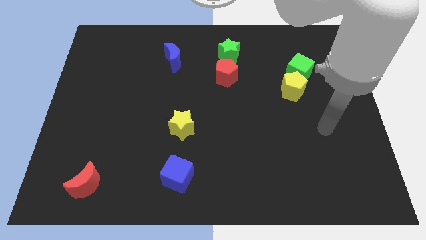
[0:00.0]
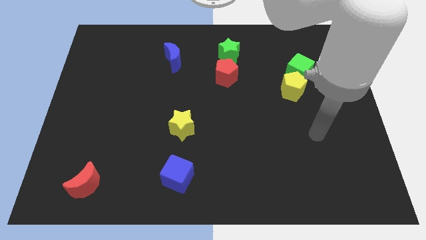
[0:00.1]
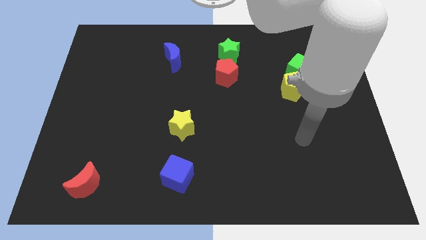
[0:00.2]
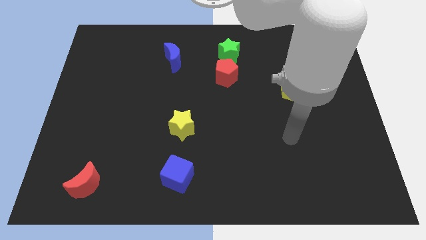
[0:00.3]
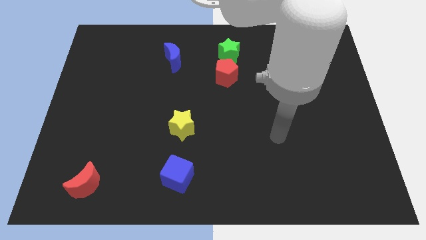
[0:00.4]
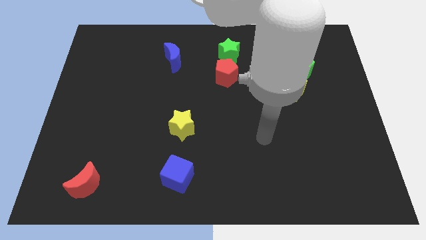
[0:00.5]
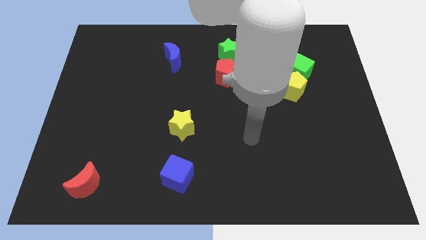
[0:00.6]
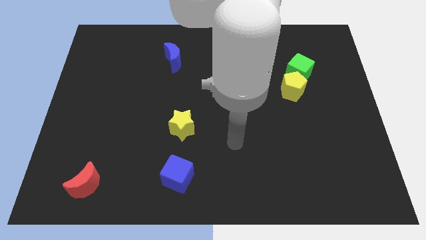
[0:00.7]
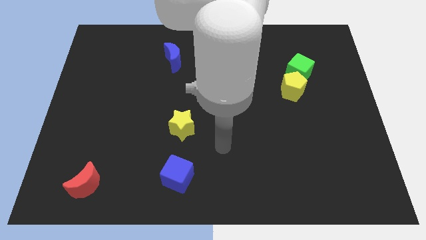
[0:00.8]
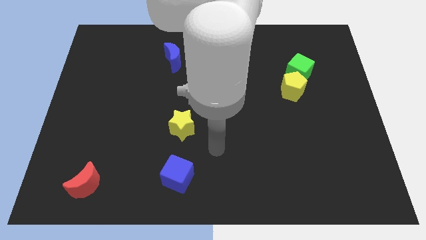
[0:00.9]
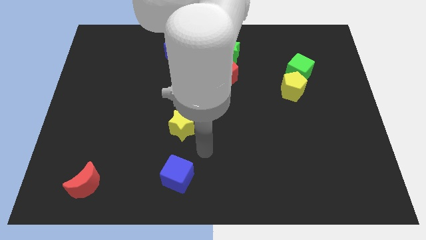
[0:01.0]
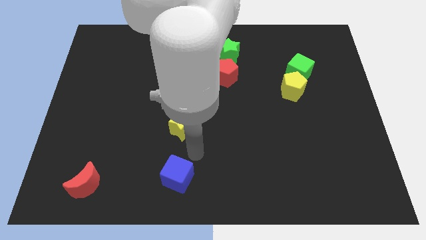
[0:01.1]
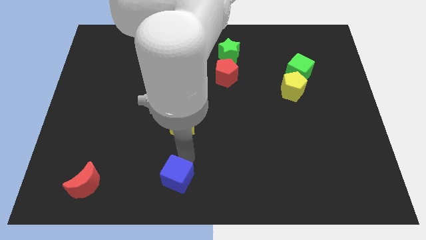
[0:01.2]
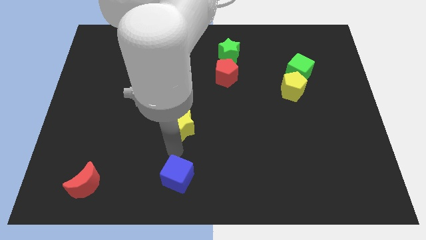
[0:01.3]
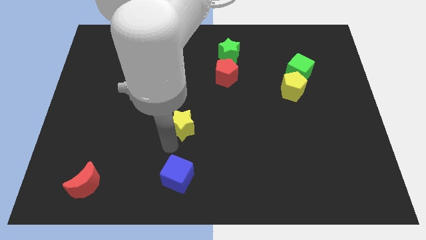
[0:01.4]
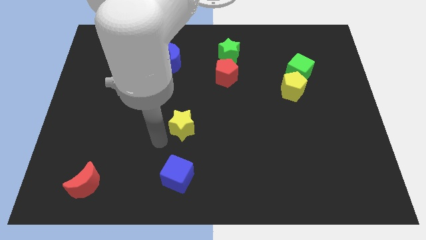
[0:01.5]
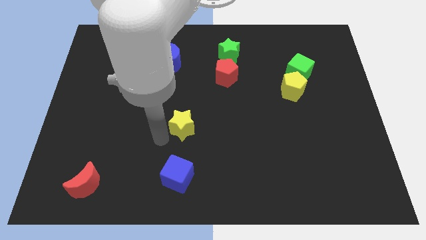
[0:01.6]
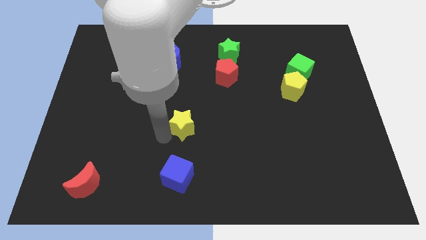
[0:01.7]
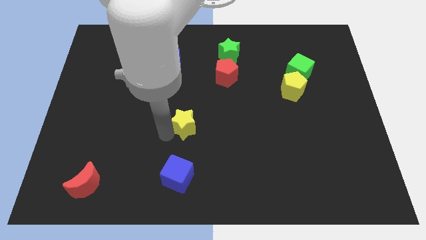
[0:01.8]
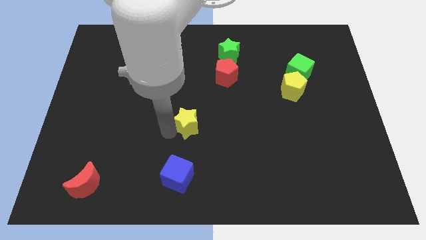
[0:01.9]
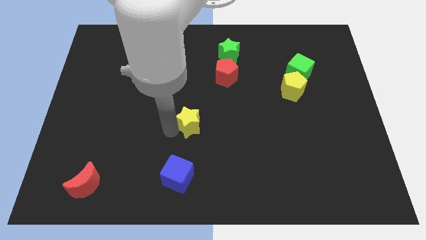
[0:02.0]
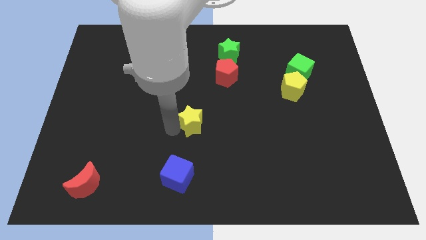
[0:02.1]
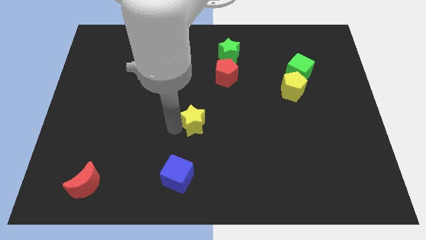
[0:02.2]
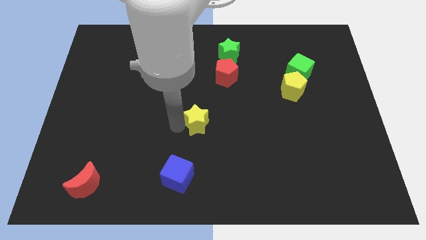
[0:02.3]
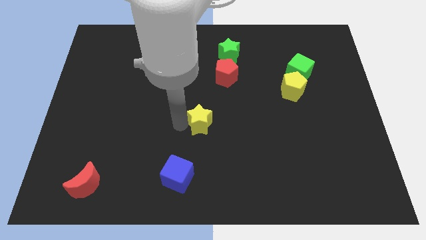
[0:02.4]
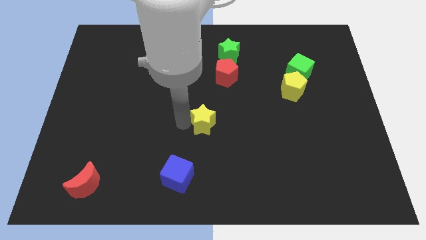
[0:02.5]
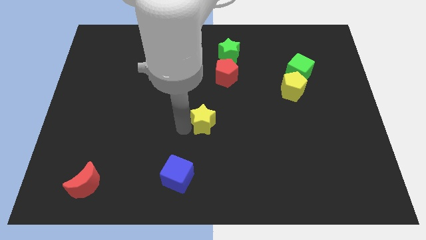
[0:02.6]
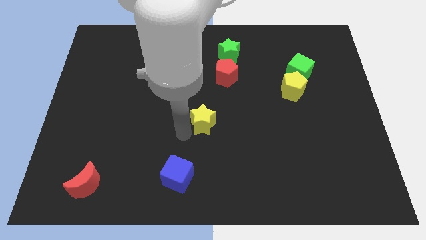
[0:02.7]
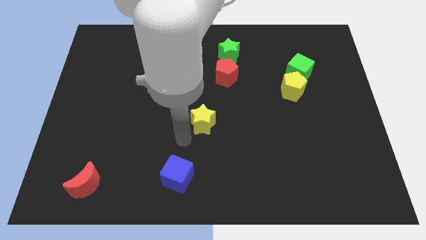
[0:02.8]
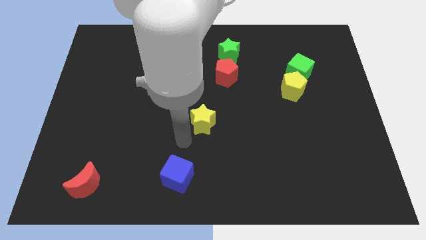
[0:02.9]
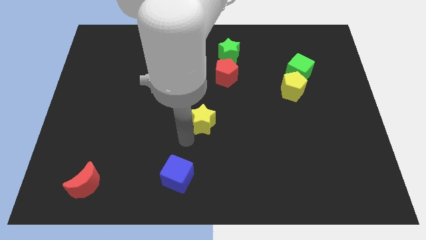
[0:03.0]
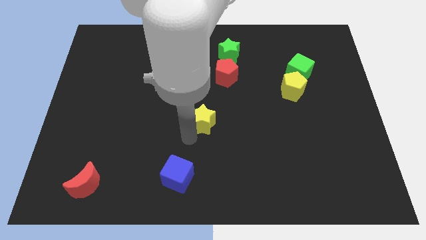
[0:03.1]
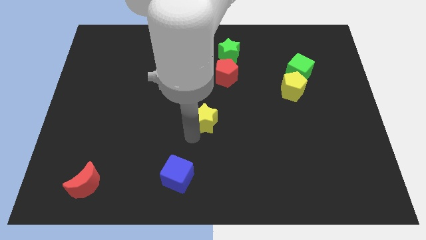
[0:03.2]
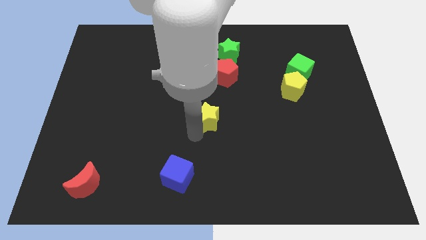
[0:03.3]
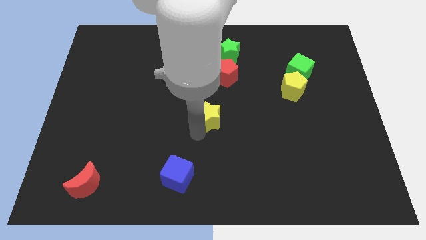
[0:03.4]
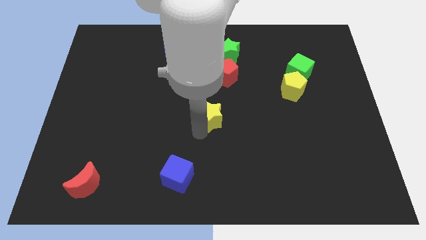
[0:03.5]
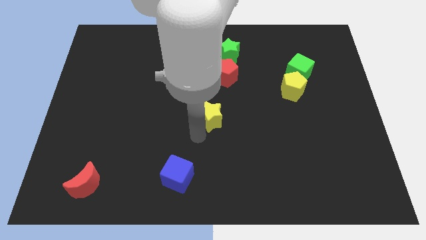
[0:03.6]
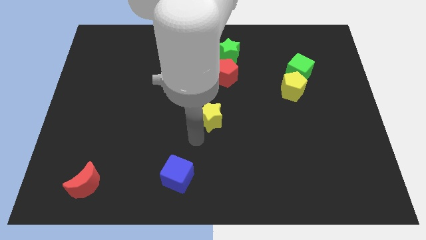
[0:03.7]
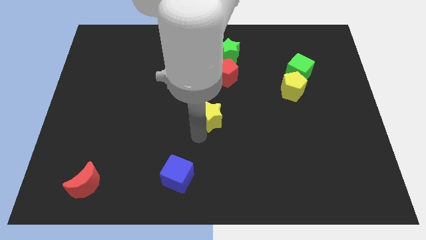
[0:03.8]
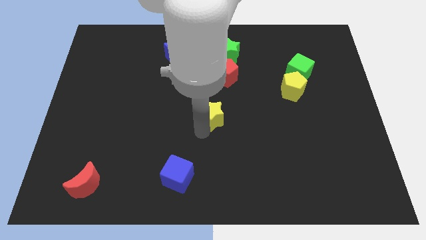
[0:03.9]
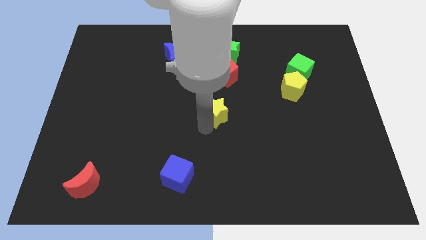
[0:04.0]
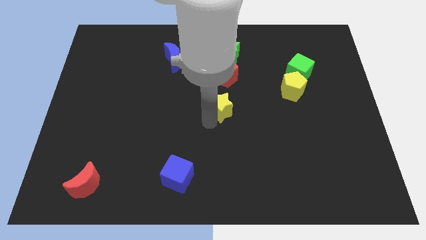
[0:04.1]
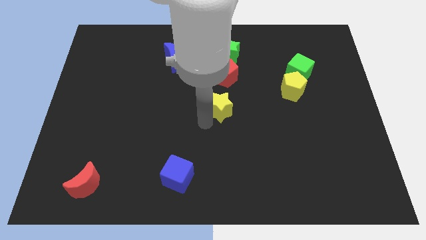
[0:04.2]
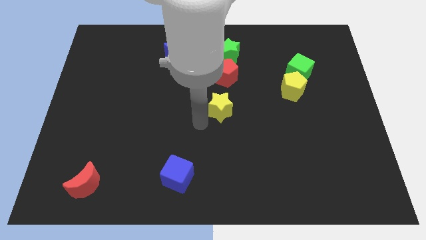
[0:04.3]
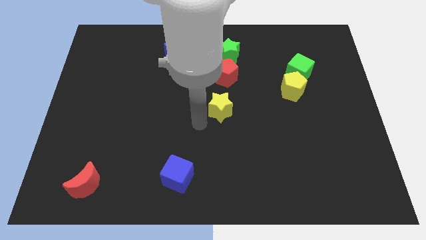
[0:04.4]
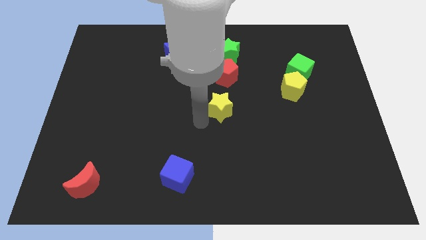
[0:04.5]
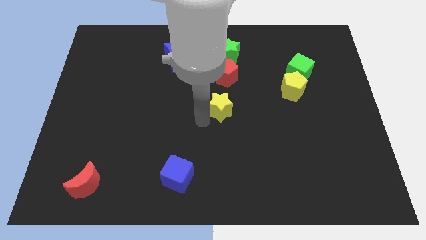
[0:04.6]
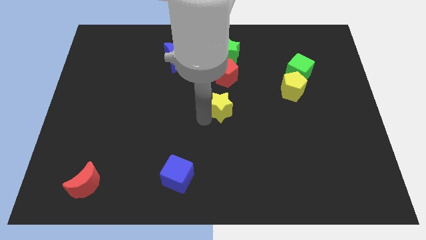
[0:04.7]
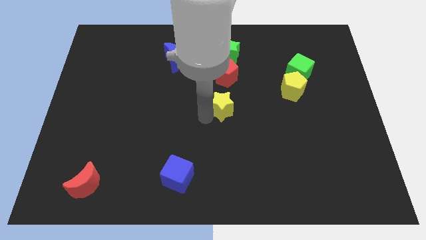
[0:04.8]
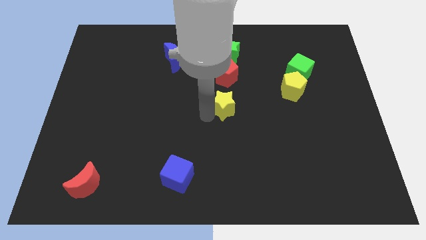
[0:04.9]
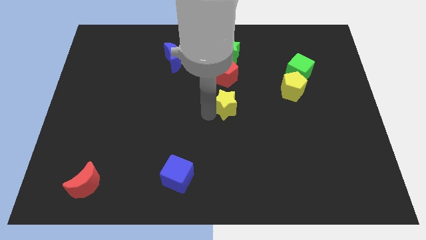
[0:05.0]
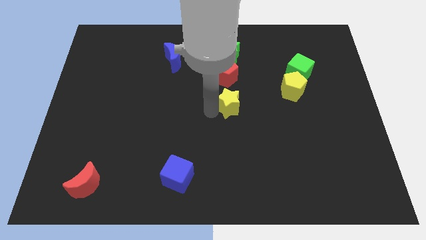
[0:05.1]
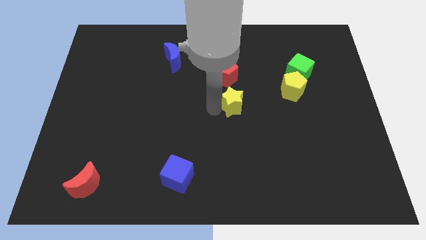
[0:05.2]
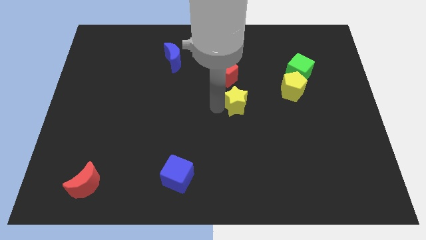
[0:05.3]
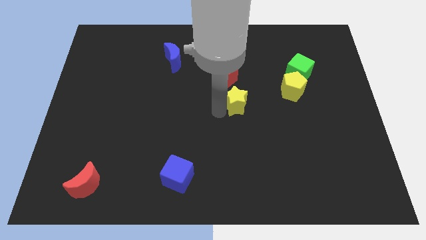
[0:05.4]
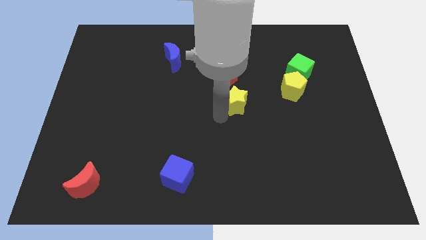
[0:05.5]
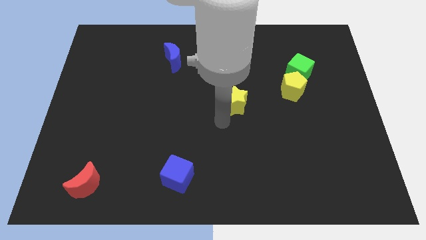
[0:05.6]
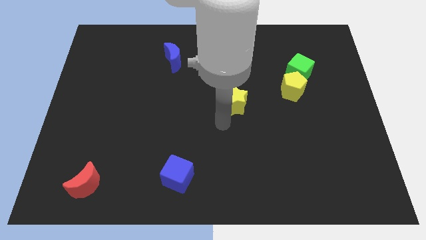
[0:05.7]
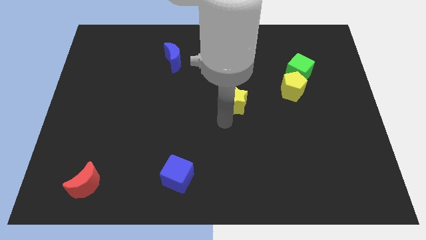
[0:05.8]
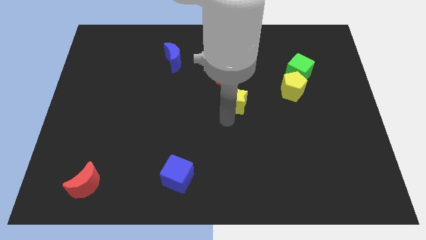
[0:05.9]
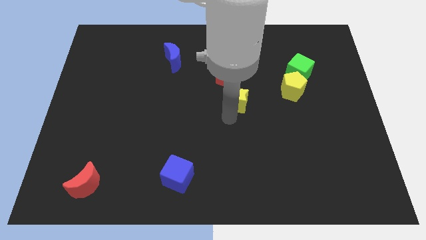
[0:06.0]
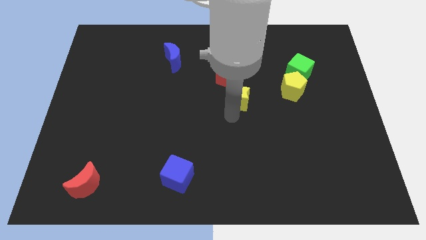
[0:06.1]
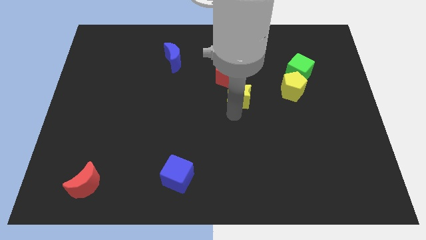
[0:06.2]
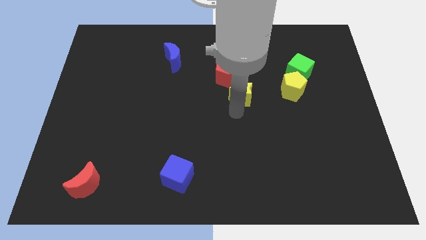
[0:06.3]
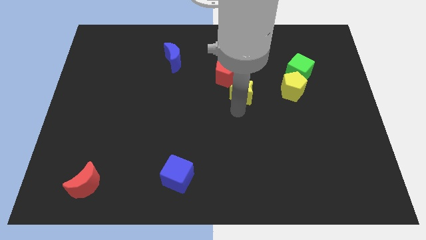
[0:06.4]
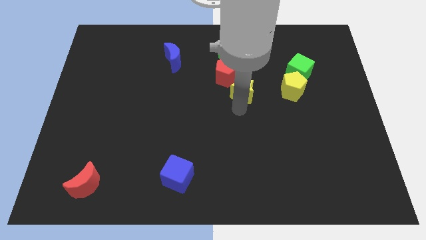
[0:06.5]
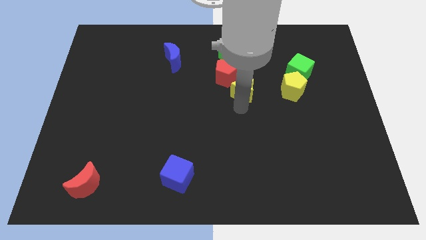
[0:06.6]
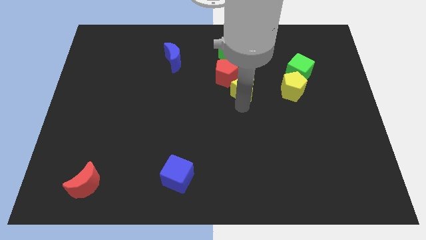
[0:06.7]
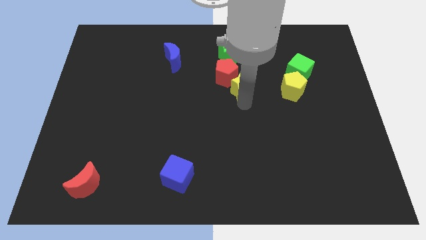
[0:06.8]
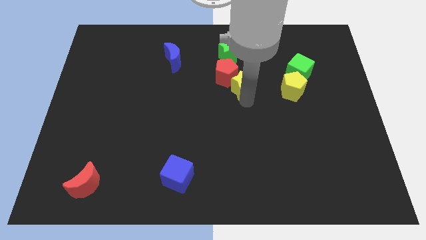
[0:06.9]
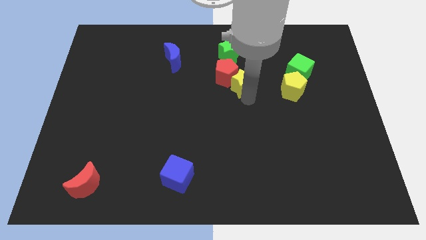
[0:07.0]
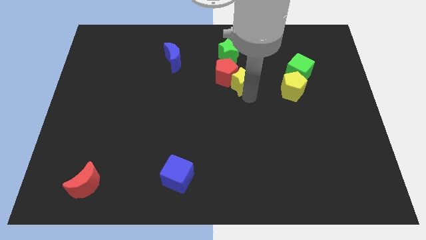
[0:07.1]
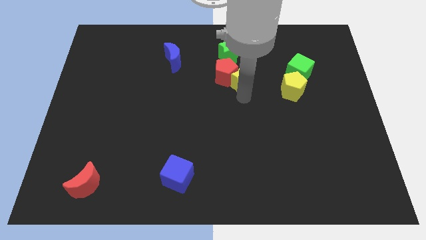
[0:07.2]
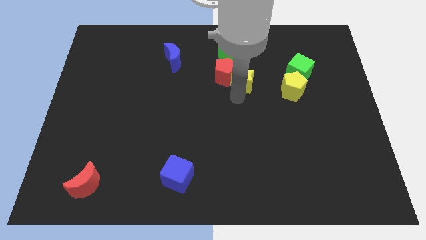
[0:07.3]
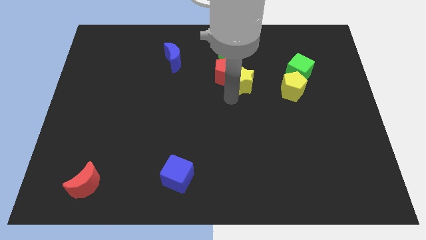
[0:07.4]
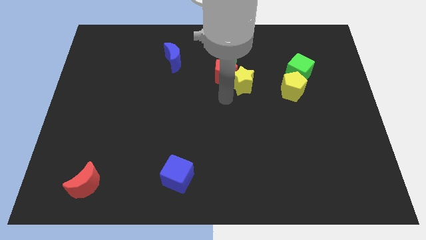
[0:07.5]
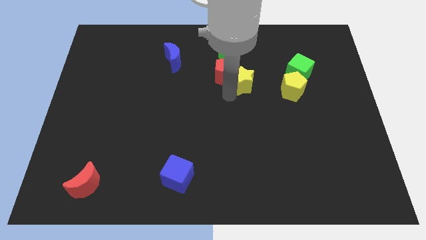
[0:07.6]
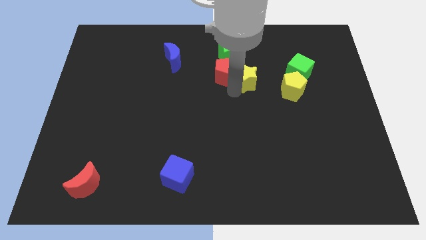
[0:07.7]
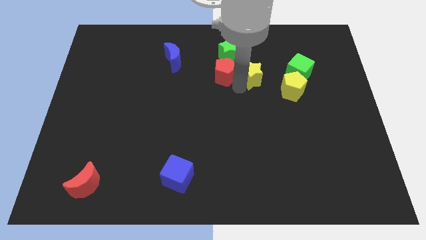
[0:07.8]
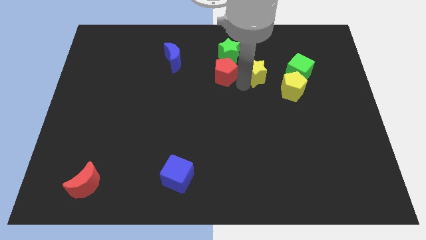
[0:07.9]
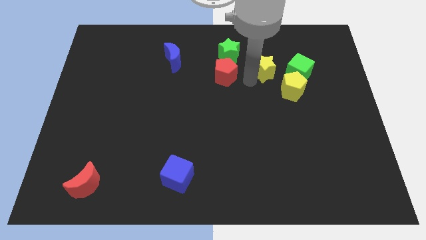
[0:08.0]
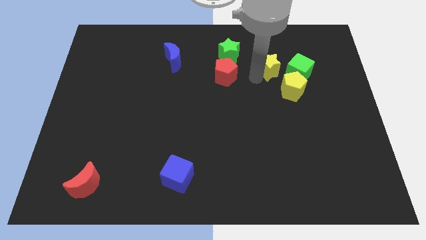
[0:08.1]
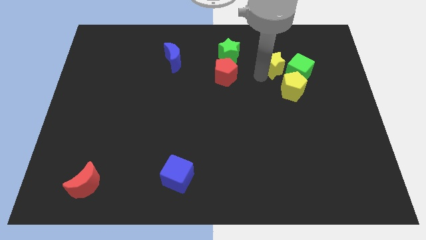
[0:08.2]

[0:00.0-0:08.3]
put the yellow star to the top side of the yellow pentagon
